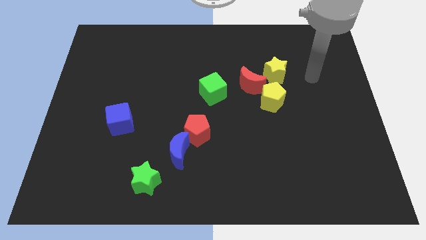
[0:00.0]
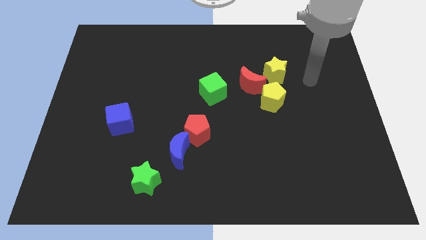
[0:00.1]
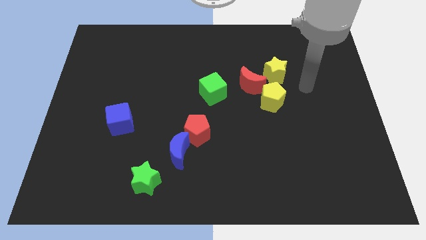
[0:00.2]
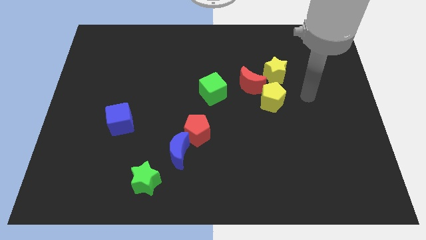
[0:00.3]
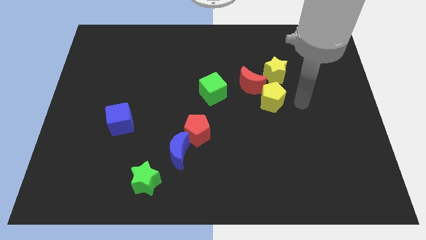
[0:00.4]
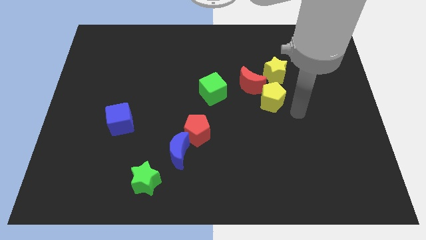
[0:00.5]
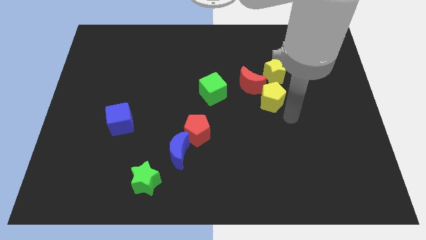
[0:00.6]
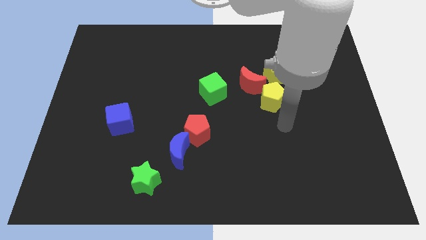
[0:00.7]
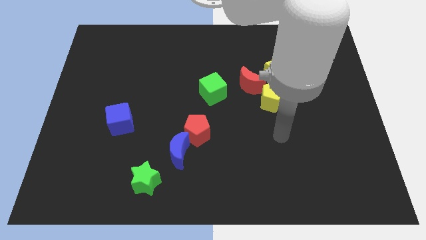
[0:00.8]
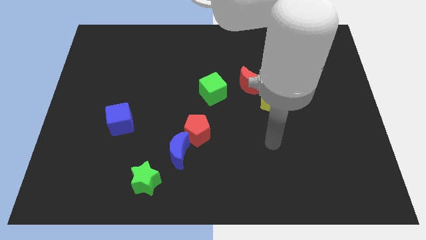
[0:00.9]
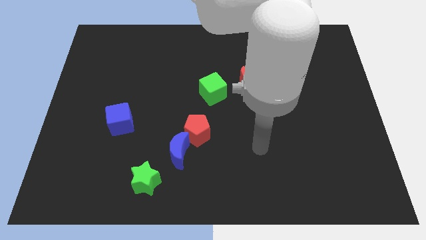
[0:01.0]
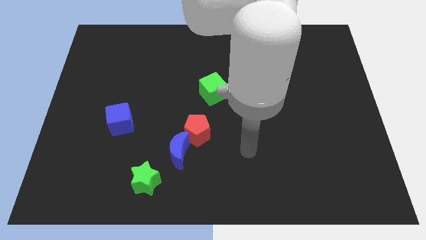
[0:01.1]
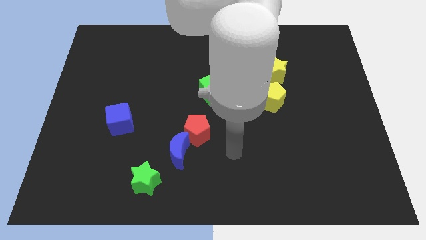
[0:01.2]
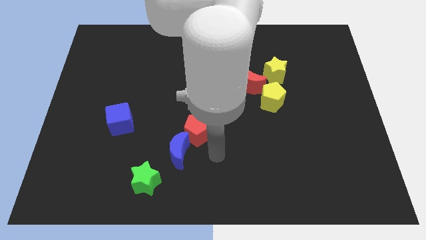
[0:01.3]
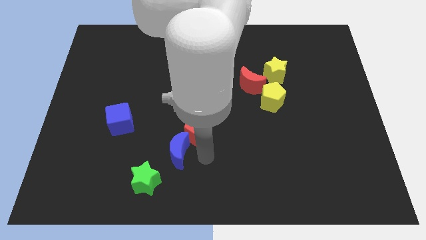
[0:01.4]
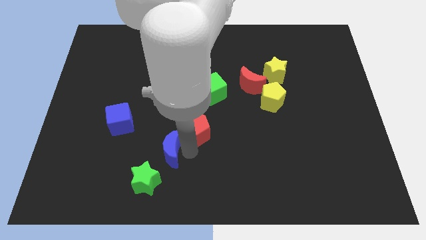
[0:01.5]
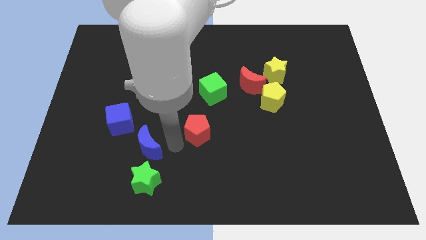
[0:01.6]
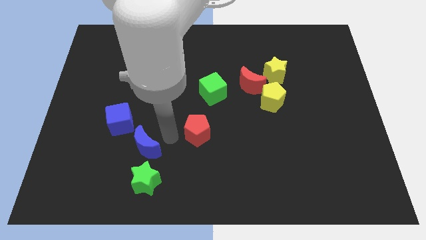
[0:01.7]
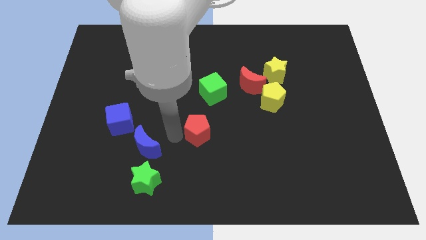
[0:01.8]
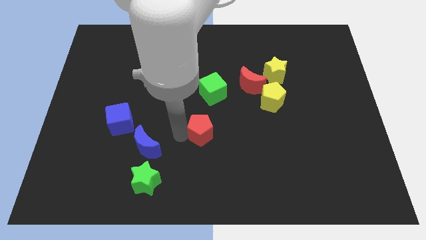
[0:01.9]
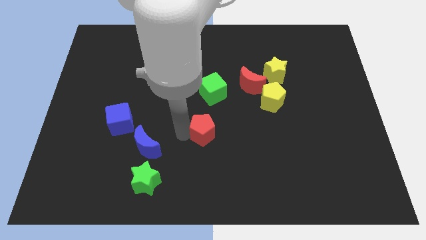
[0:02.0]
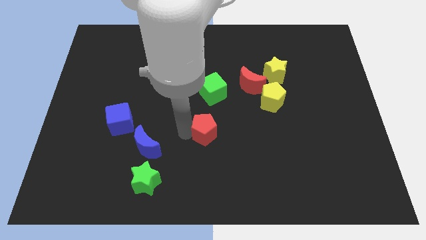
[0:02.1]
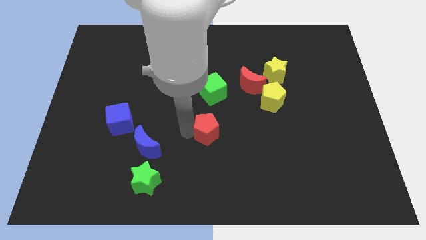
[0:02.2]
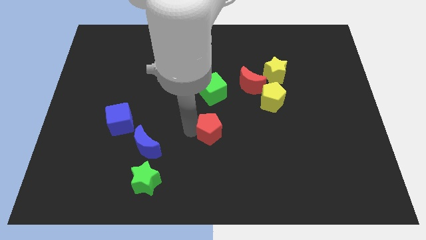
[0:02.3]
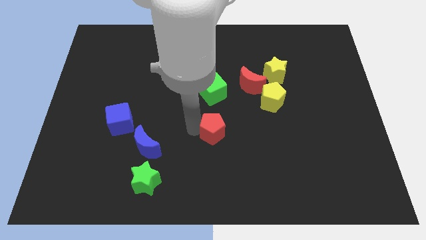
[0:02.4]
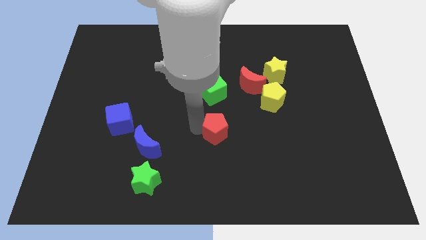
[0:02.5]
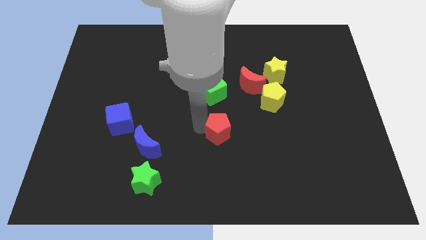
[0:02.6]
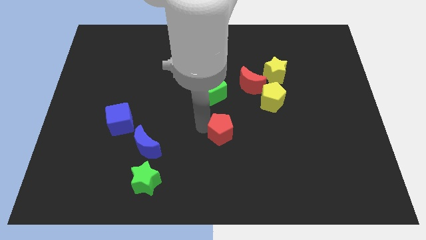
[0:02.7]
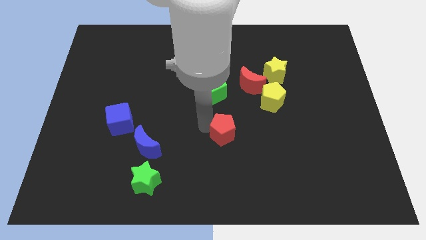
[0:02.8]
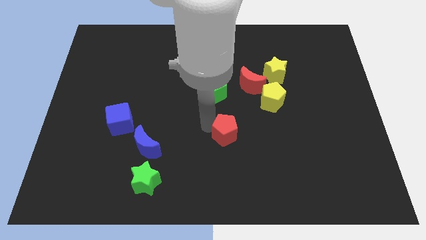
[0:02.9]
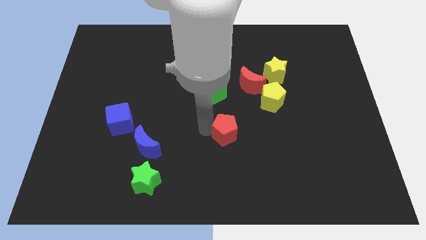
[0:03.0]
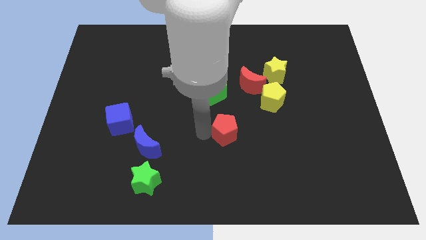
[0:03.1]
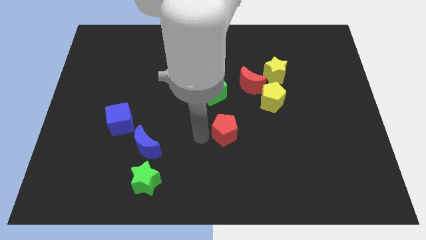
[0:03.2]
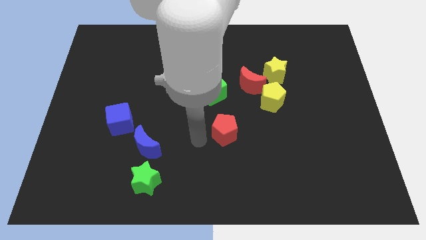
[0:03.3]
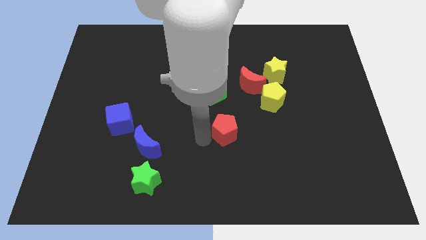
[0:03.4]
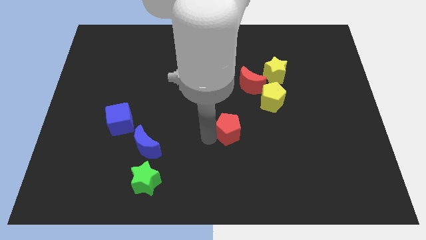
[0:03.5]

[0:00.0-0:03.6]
slide the red pentagon slightly right

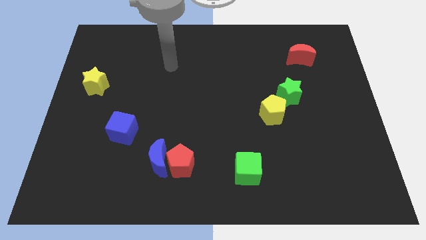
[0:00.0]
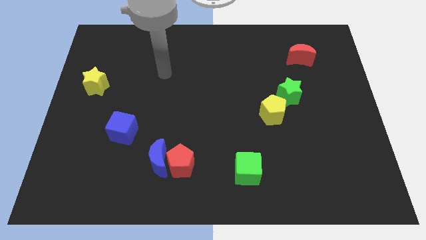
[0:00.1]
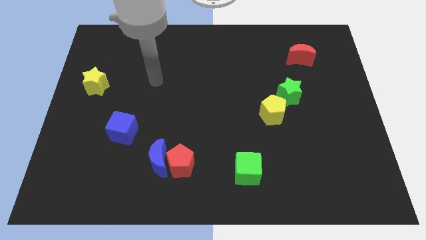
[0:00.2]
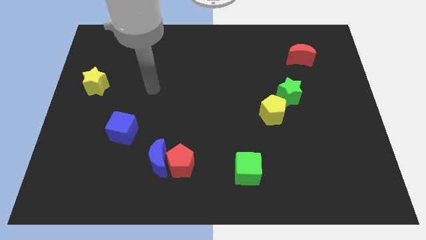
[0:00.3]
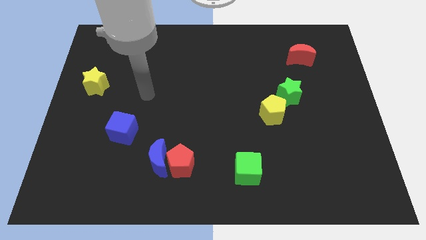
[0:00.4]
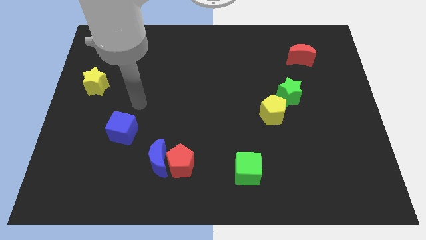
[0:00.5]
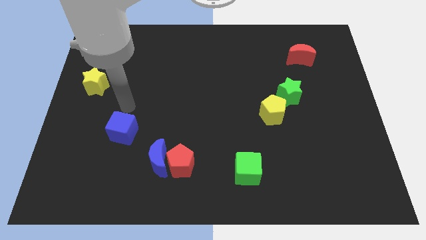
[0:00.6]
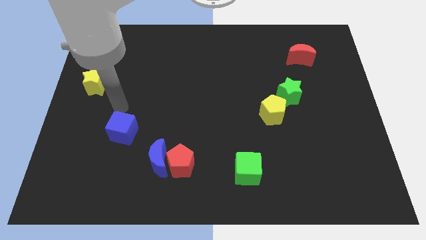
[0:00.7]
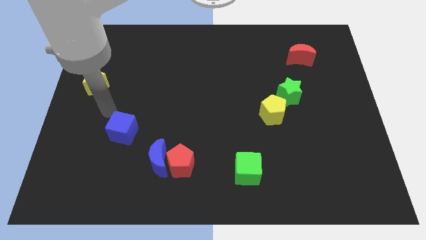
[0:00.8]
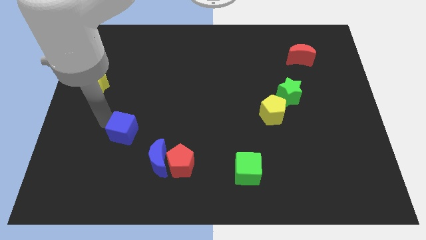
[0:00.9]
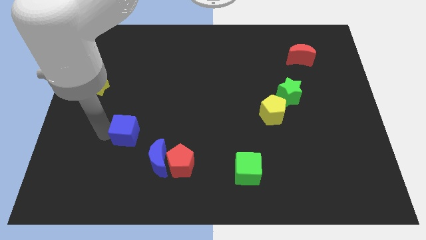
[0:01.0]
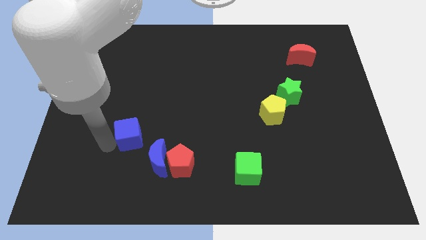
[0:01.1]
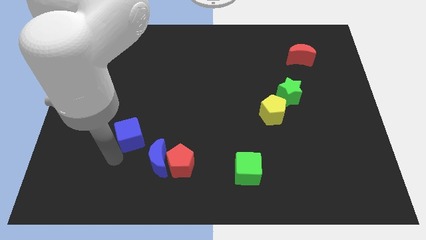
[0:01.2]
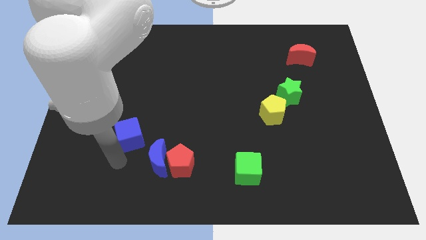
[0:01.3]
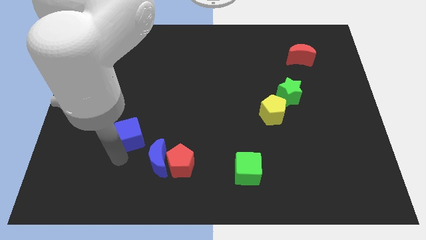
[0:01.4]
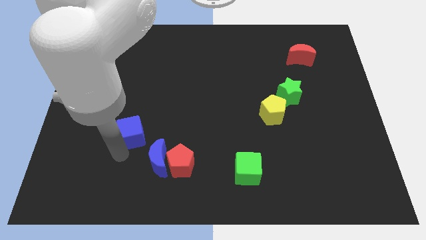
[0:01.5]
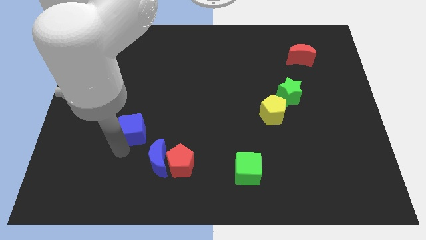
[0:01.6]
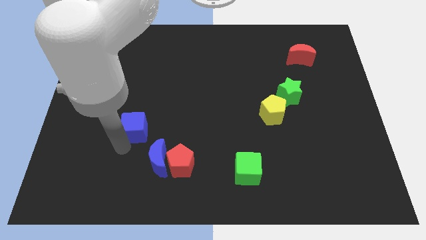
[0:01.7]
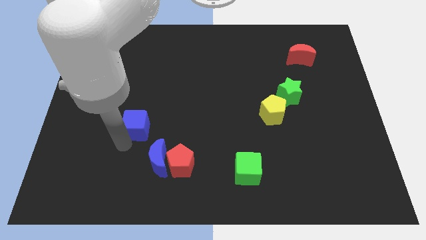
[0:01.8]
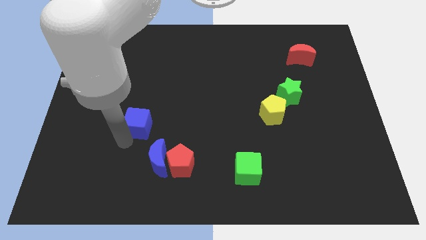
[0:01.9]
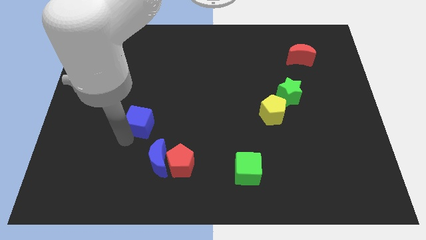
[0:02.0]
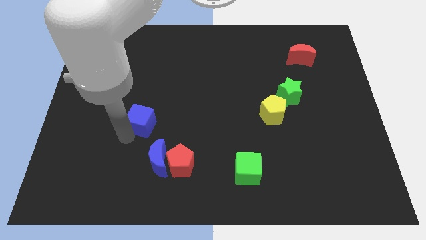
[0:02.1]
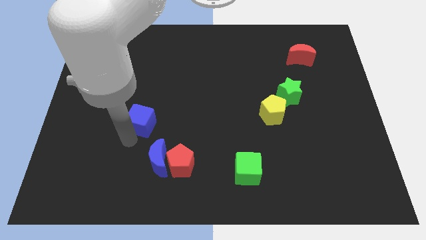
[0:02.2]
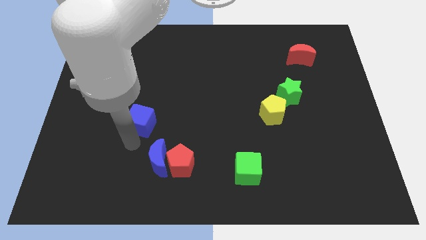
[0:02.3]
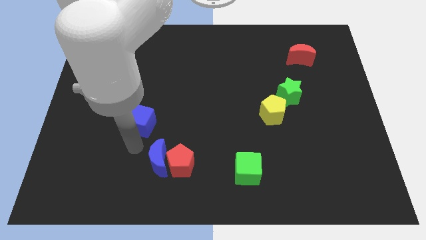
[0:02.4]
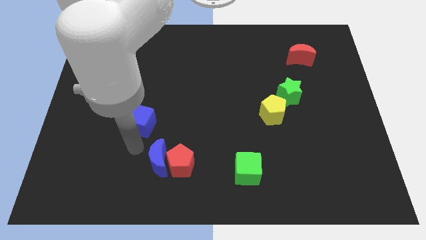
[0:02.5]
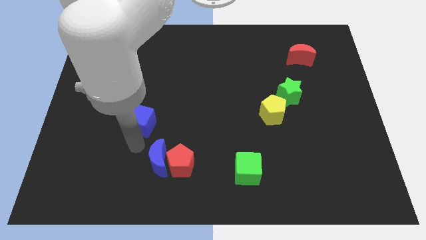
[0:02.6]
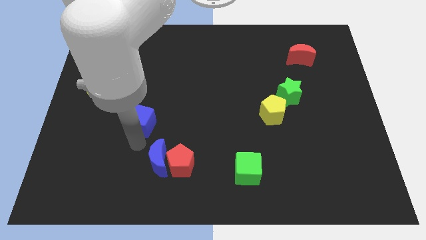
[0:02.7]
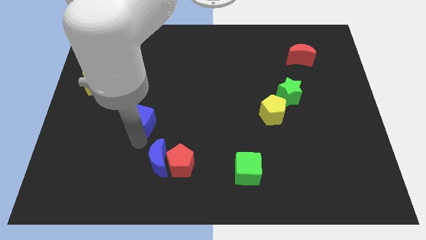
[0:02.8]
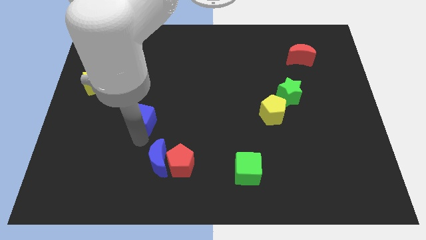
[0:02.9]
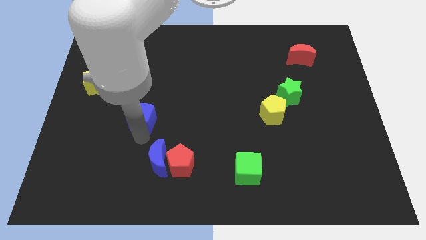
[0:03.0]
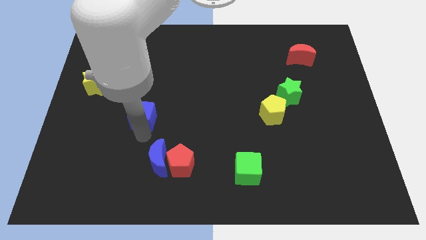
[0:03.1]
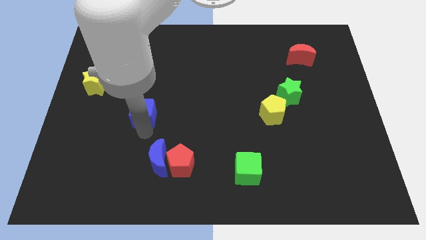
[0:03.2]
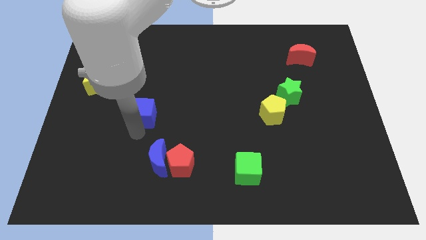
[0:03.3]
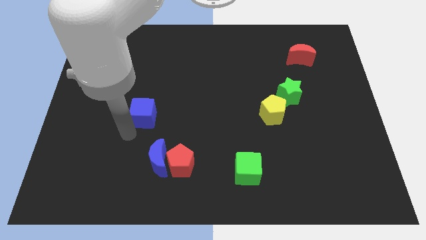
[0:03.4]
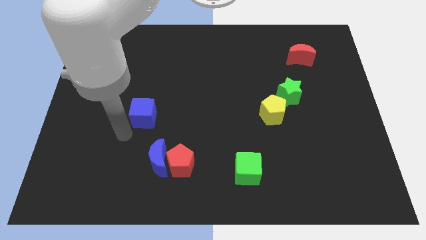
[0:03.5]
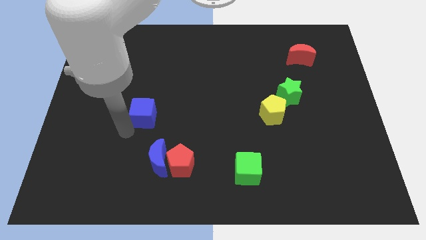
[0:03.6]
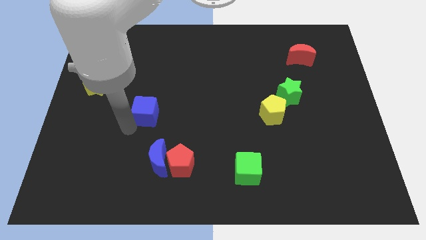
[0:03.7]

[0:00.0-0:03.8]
slide the blue cube upwards and then right a bit
